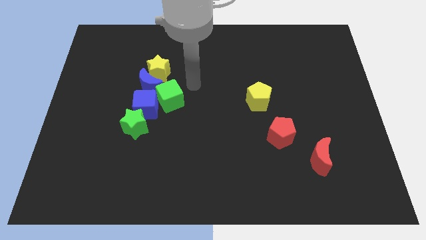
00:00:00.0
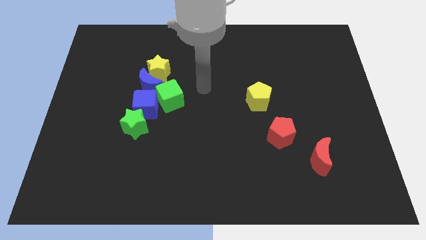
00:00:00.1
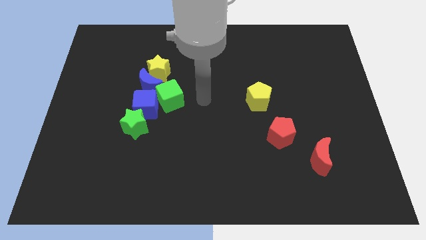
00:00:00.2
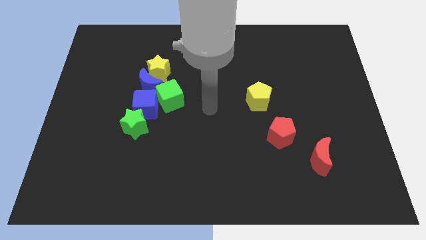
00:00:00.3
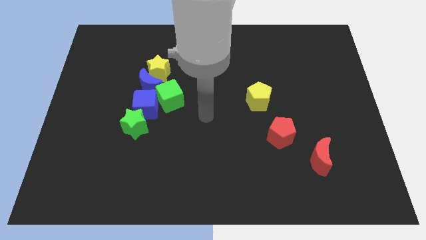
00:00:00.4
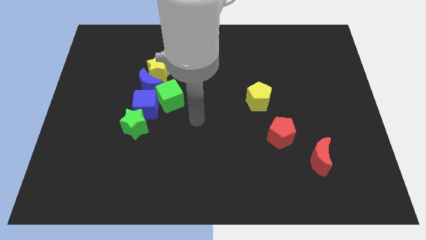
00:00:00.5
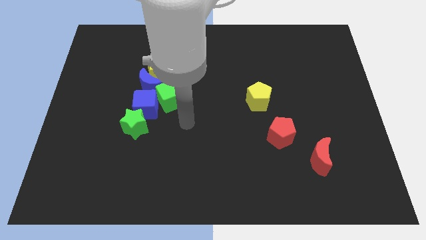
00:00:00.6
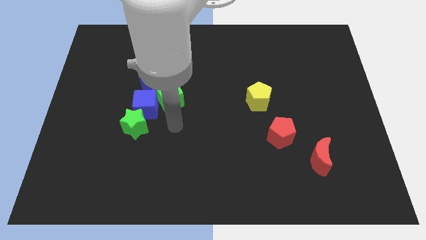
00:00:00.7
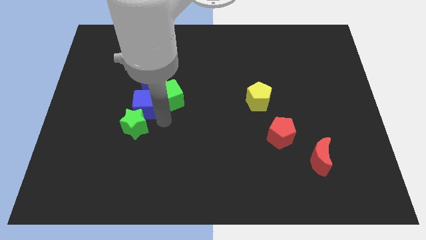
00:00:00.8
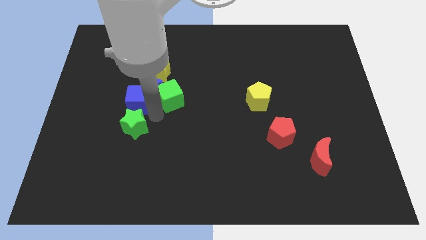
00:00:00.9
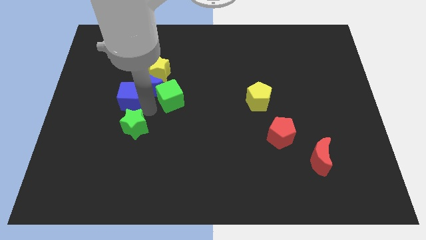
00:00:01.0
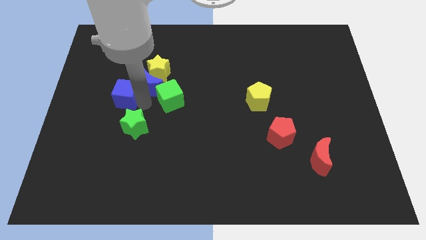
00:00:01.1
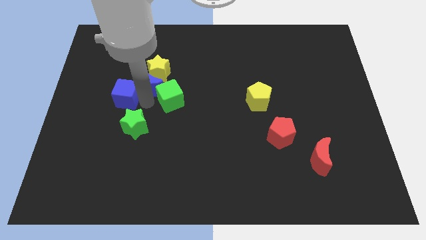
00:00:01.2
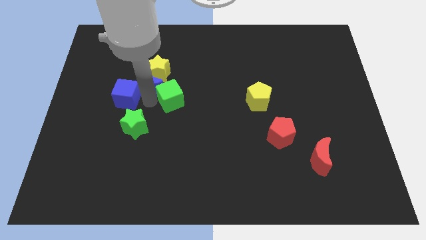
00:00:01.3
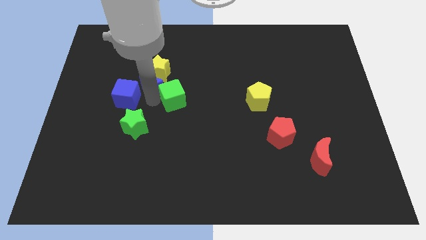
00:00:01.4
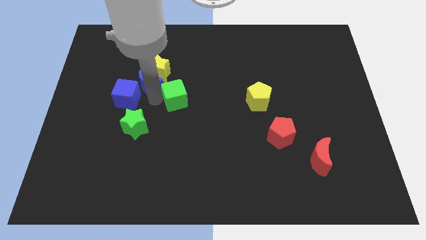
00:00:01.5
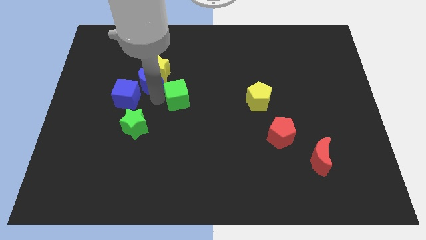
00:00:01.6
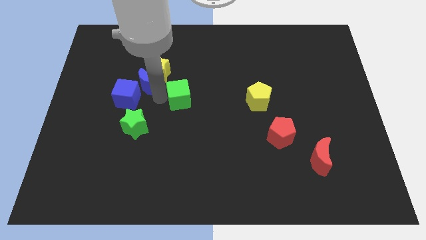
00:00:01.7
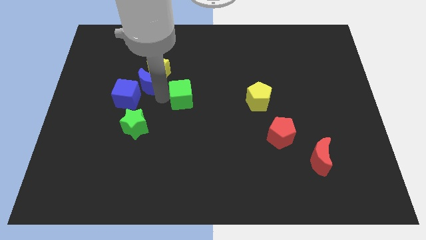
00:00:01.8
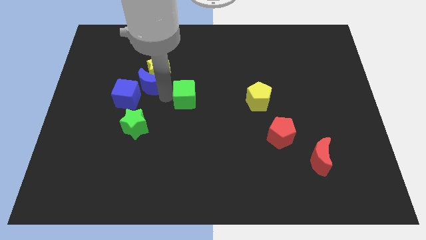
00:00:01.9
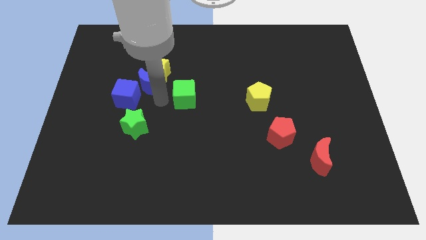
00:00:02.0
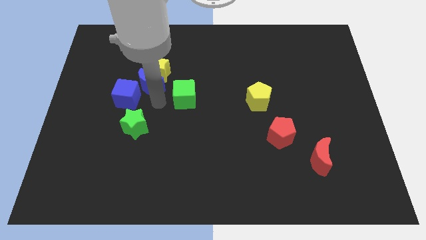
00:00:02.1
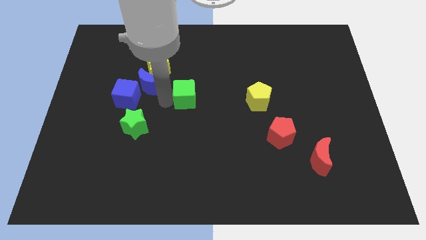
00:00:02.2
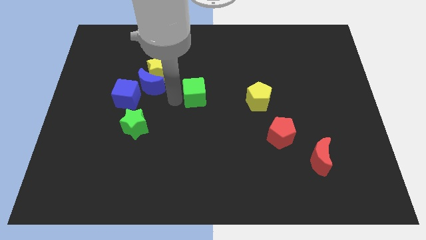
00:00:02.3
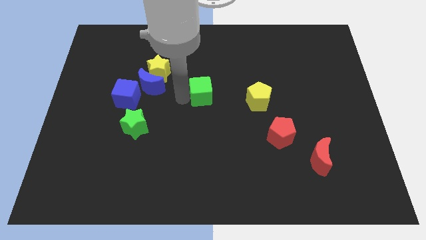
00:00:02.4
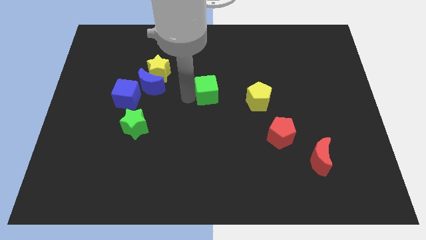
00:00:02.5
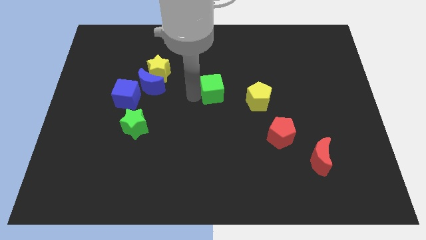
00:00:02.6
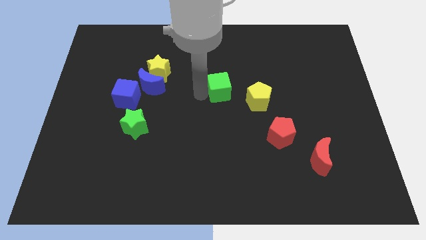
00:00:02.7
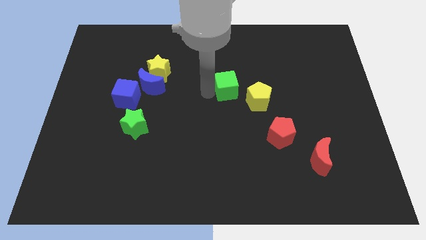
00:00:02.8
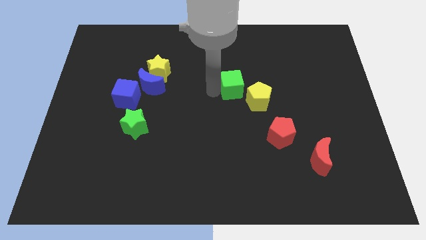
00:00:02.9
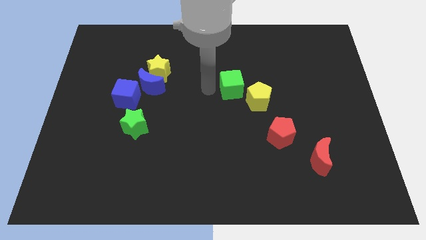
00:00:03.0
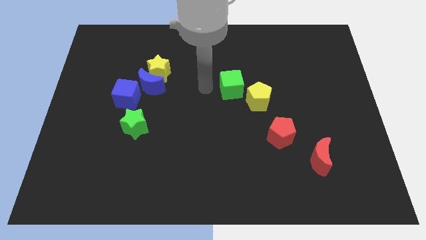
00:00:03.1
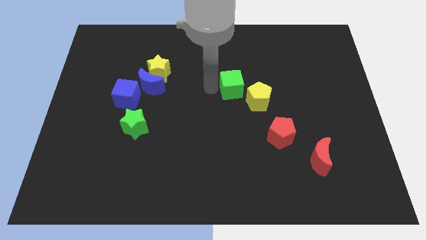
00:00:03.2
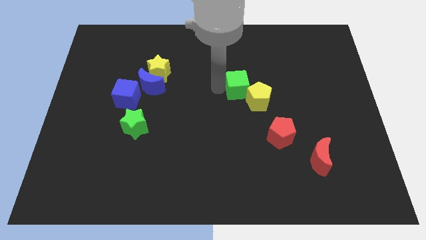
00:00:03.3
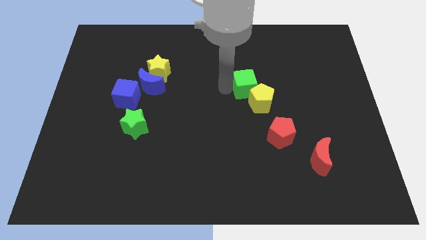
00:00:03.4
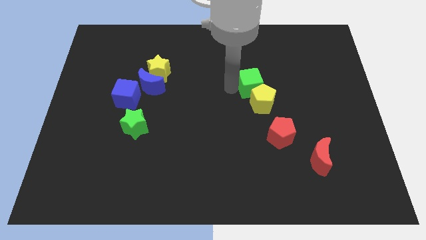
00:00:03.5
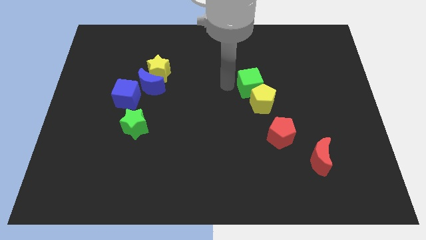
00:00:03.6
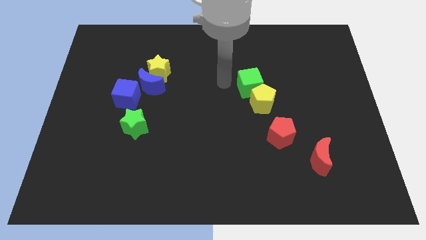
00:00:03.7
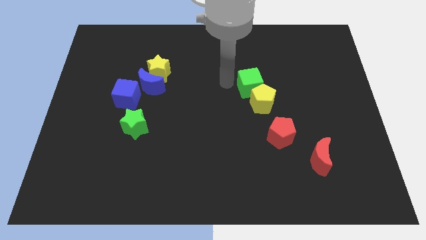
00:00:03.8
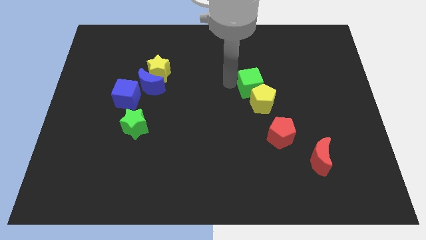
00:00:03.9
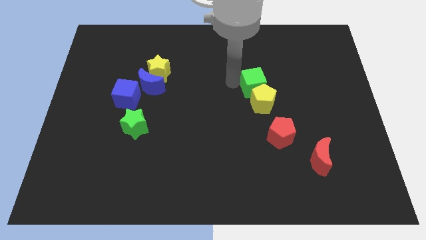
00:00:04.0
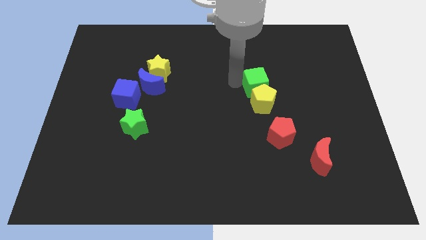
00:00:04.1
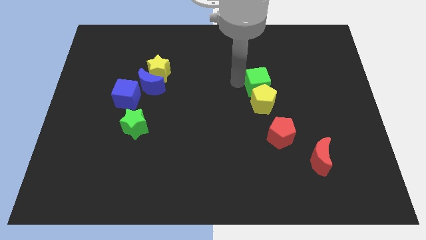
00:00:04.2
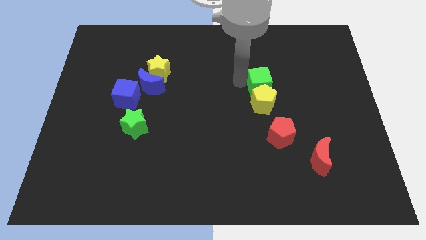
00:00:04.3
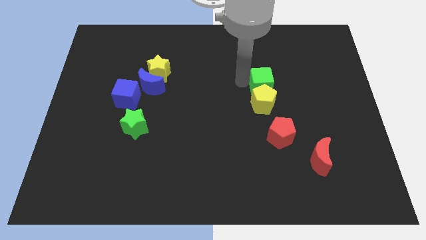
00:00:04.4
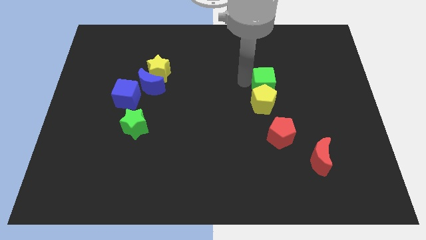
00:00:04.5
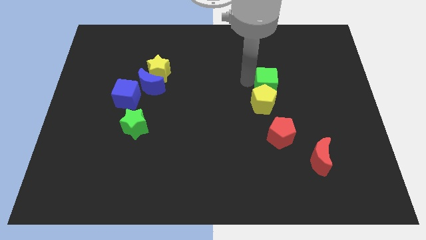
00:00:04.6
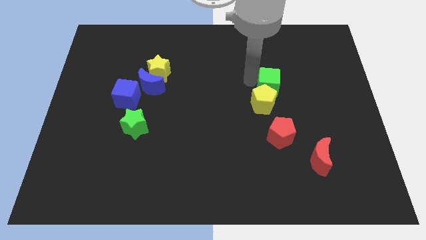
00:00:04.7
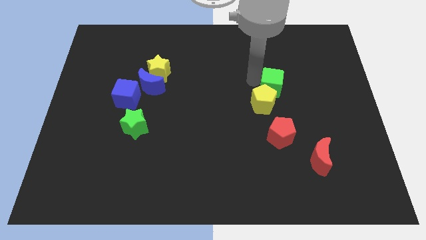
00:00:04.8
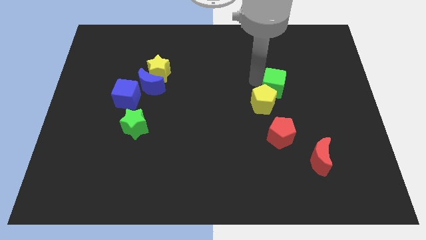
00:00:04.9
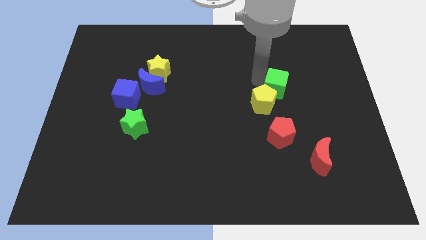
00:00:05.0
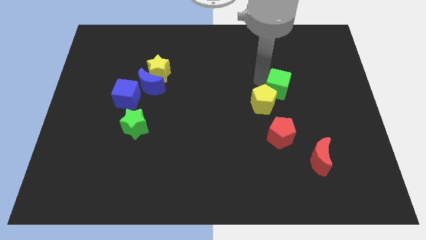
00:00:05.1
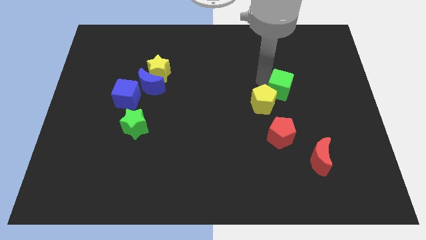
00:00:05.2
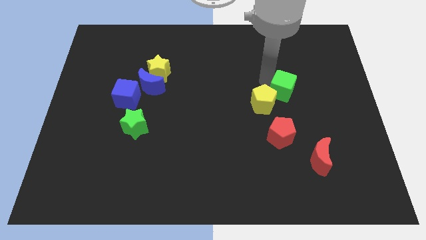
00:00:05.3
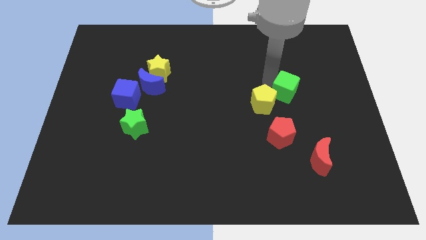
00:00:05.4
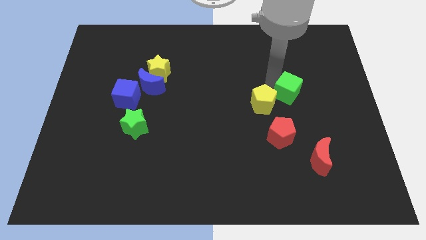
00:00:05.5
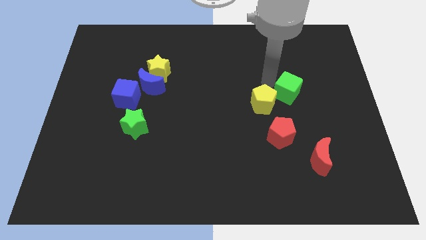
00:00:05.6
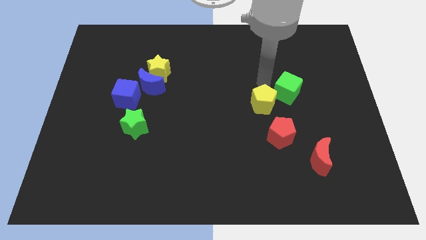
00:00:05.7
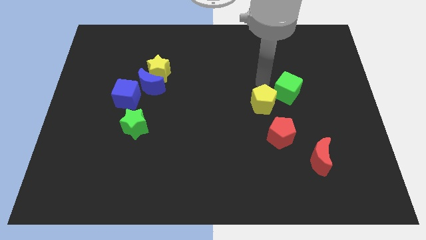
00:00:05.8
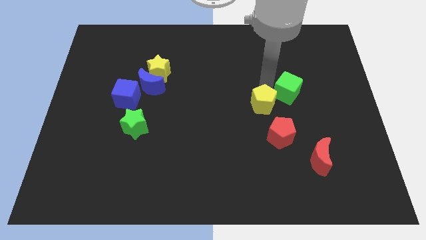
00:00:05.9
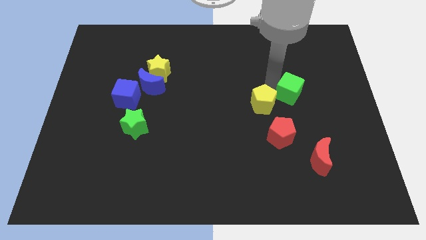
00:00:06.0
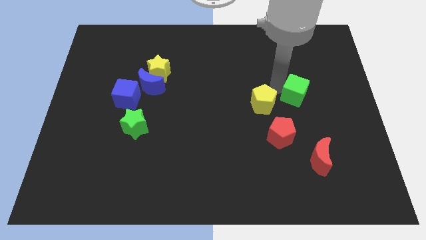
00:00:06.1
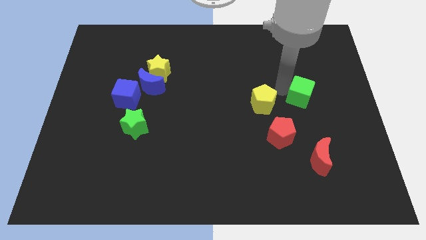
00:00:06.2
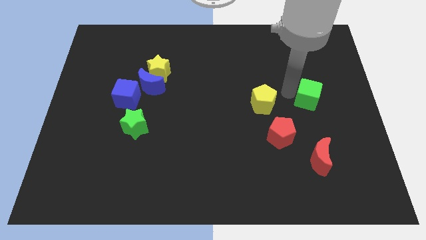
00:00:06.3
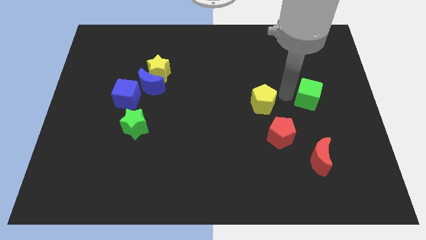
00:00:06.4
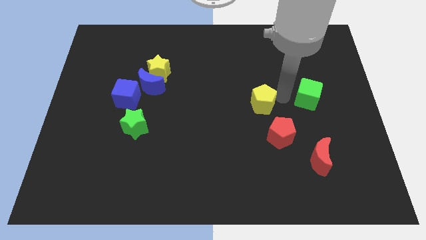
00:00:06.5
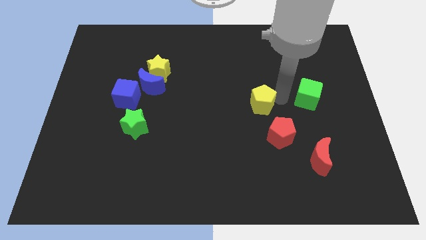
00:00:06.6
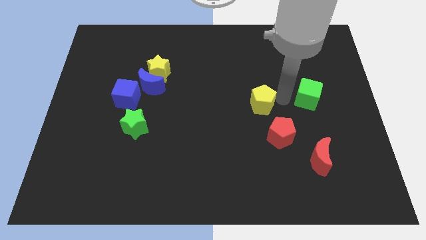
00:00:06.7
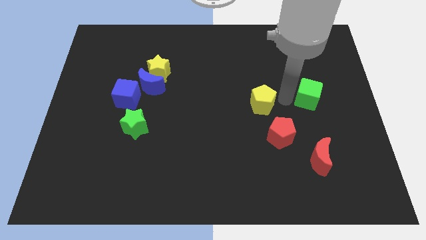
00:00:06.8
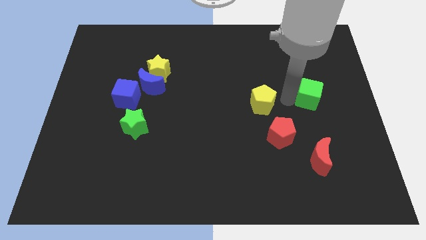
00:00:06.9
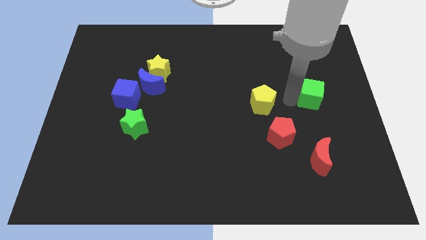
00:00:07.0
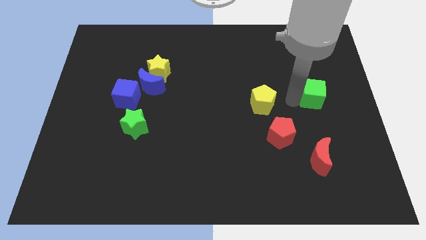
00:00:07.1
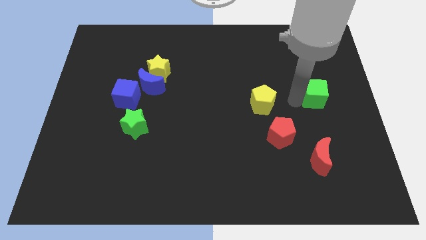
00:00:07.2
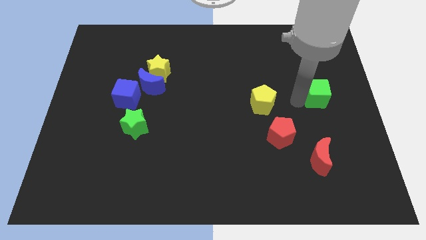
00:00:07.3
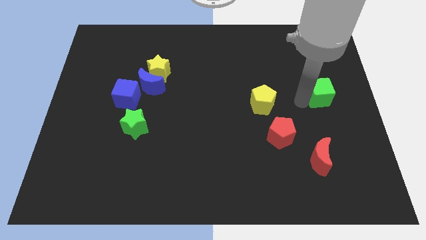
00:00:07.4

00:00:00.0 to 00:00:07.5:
slide the green cube to the center right
